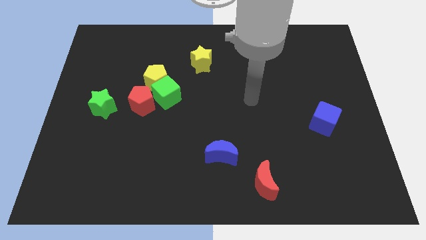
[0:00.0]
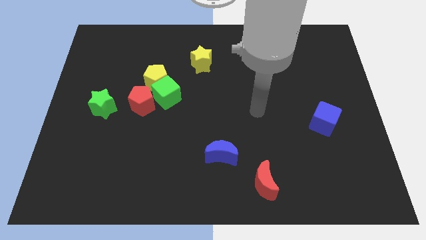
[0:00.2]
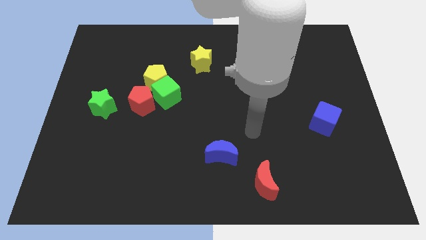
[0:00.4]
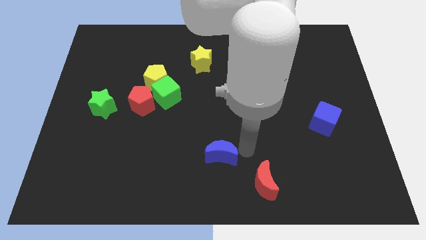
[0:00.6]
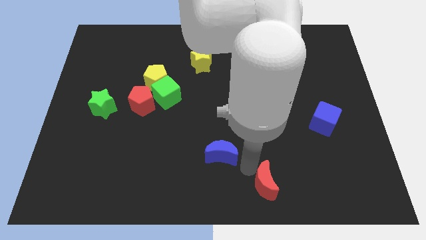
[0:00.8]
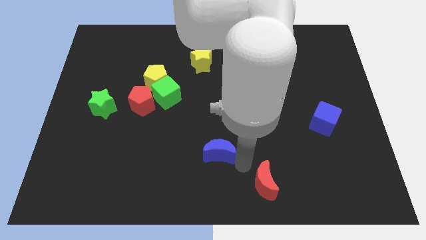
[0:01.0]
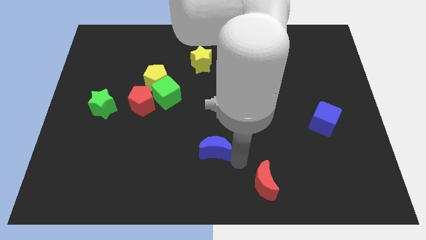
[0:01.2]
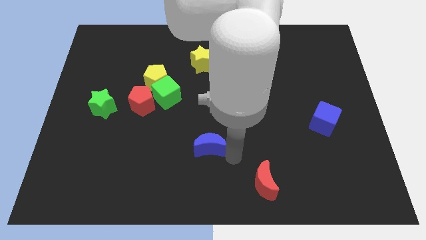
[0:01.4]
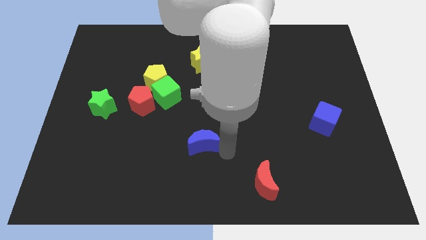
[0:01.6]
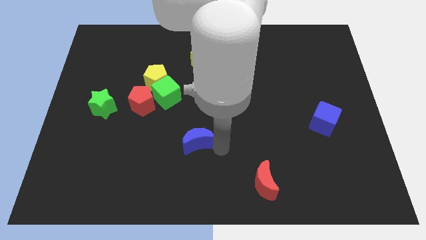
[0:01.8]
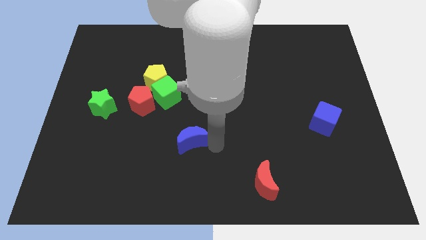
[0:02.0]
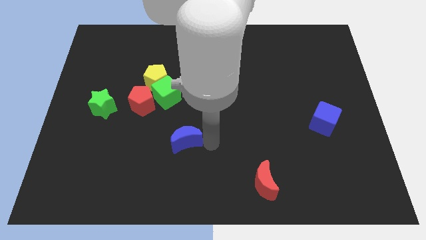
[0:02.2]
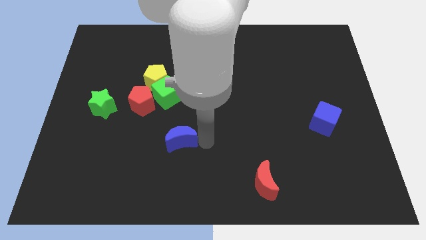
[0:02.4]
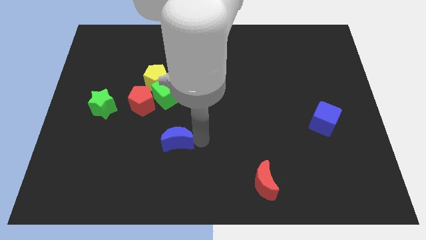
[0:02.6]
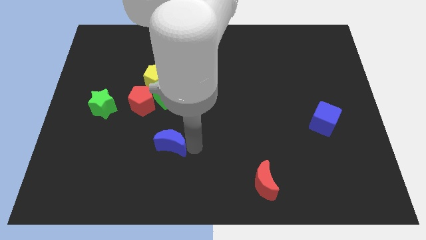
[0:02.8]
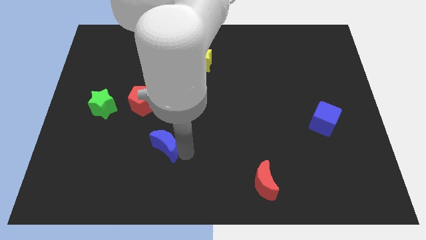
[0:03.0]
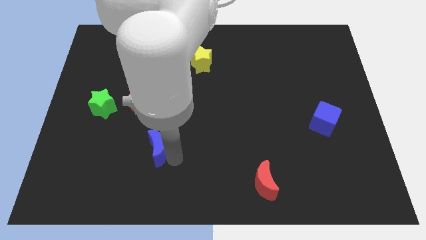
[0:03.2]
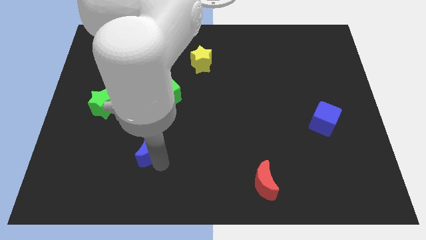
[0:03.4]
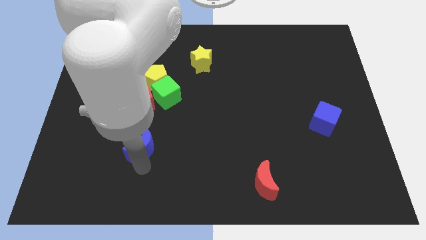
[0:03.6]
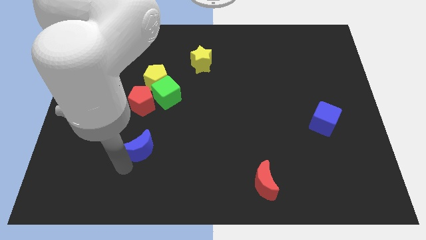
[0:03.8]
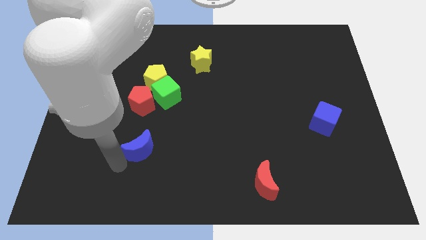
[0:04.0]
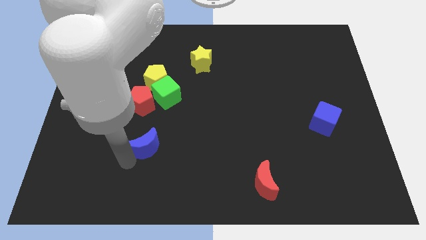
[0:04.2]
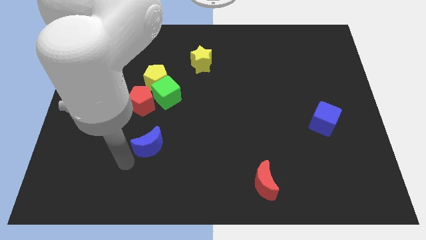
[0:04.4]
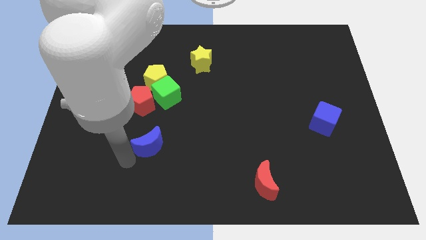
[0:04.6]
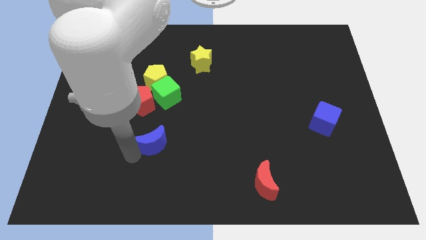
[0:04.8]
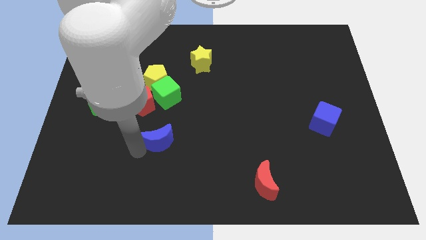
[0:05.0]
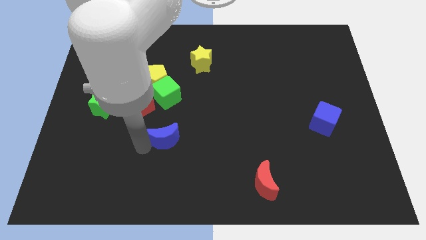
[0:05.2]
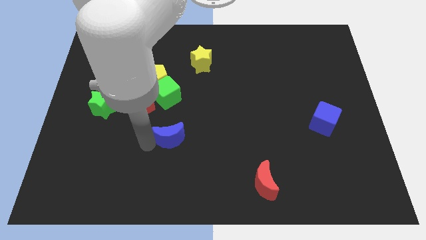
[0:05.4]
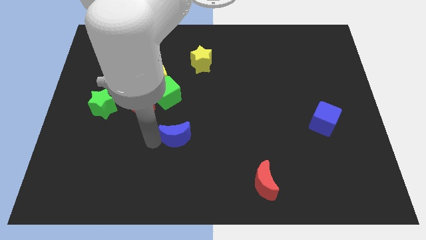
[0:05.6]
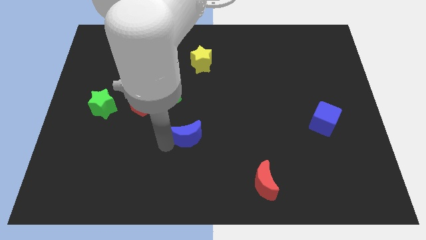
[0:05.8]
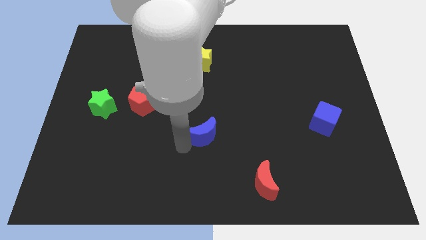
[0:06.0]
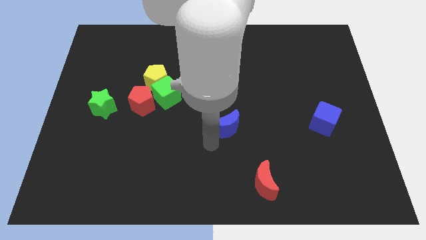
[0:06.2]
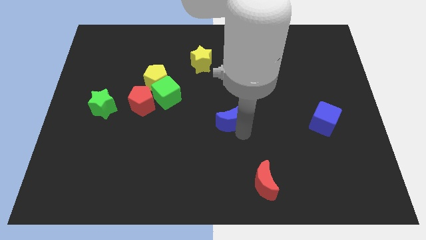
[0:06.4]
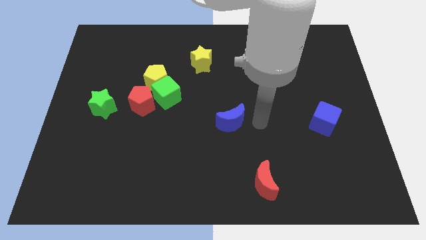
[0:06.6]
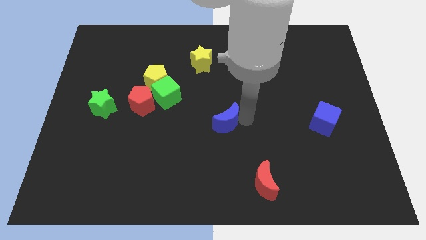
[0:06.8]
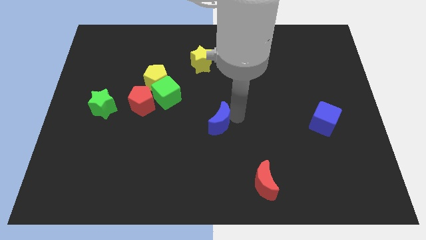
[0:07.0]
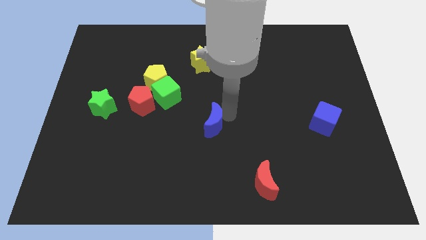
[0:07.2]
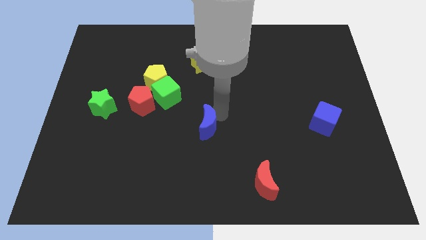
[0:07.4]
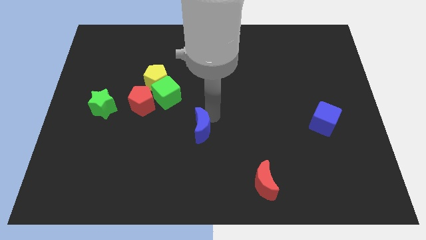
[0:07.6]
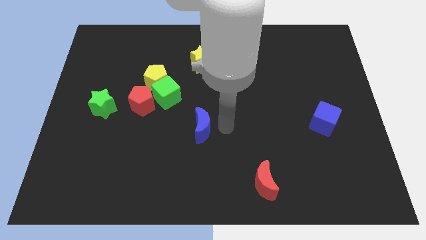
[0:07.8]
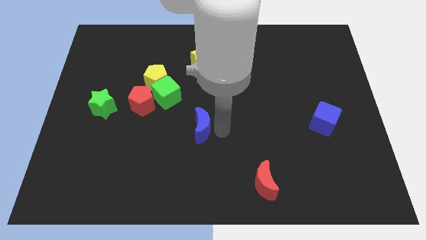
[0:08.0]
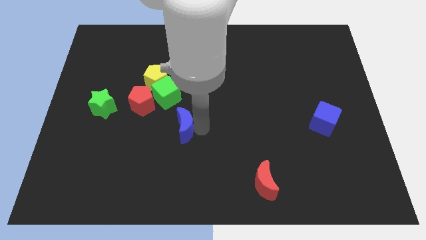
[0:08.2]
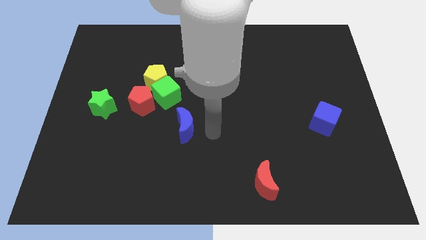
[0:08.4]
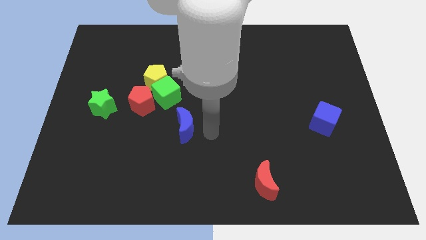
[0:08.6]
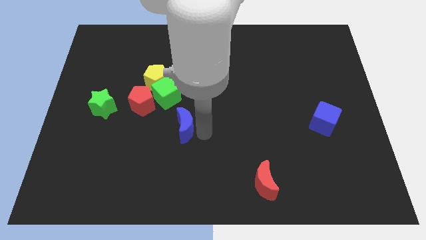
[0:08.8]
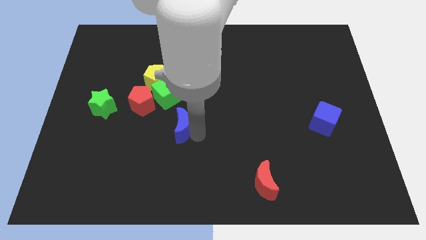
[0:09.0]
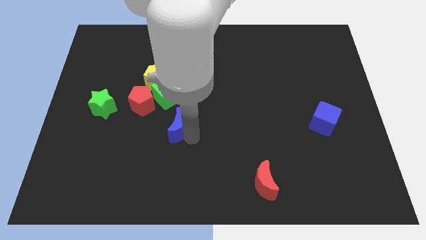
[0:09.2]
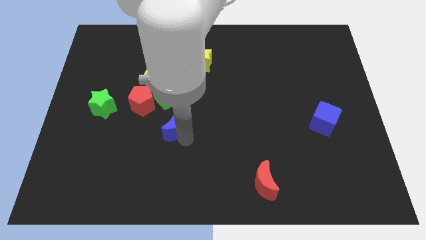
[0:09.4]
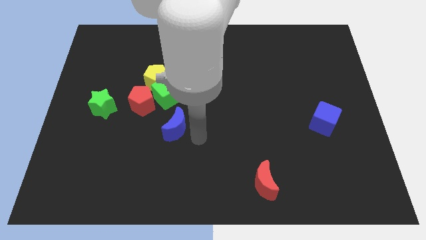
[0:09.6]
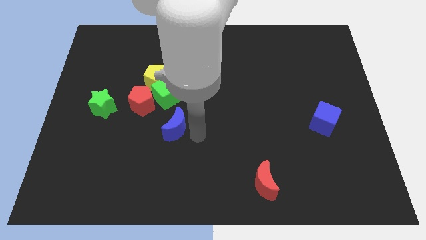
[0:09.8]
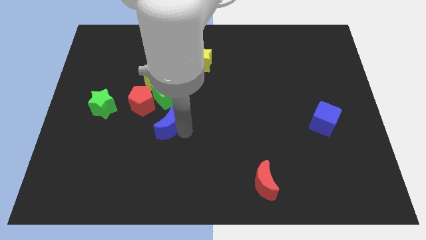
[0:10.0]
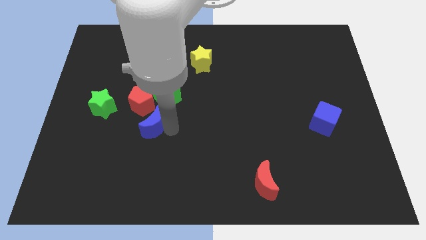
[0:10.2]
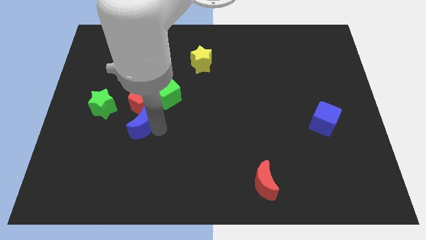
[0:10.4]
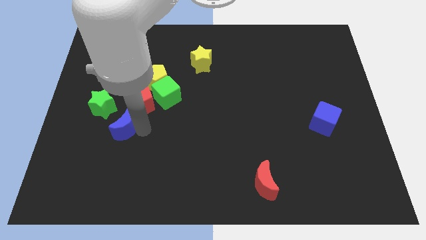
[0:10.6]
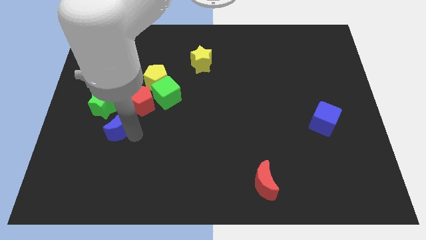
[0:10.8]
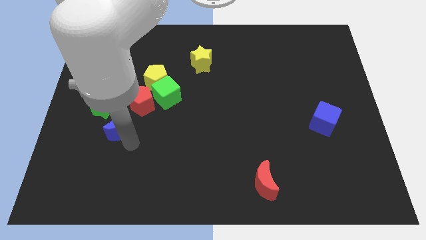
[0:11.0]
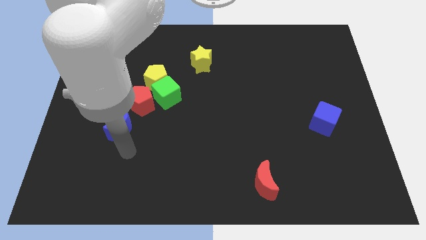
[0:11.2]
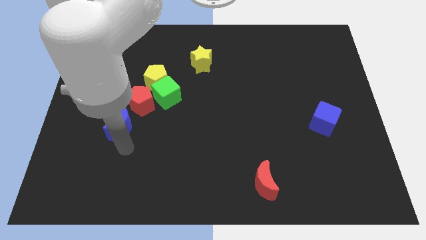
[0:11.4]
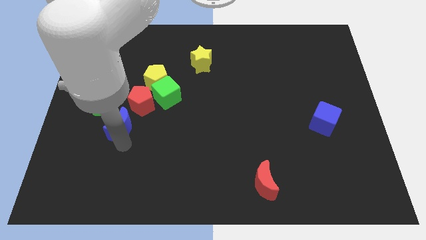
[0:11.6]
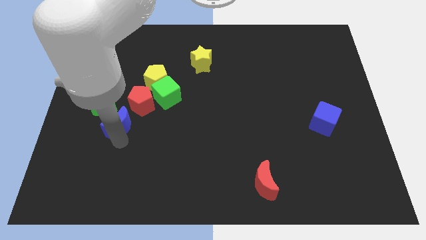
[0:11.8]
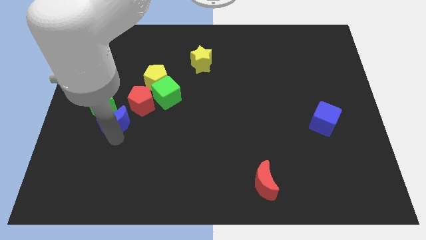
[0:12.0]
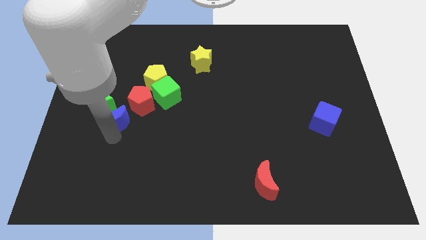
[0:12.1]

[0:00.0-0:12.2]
put the blue moon next to the green star
